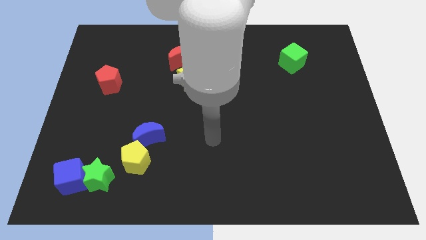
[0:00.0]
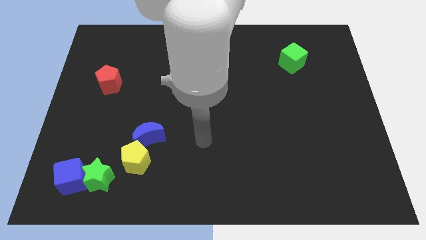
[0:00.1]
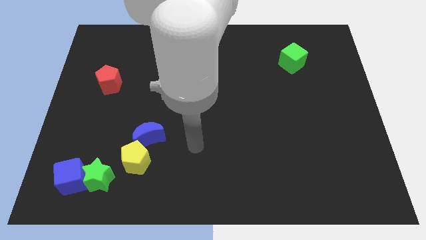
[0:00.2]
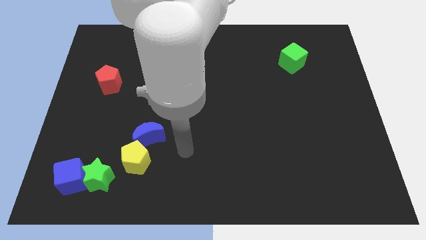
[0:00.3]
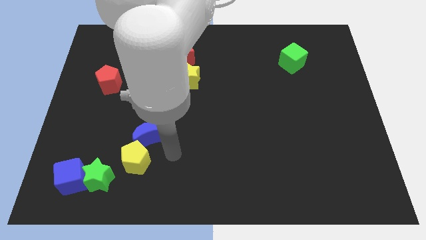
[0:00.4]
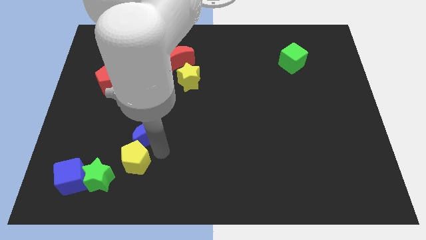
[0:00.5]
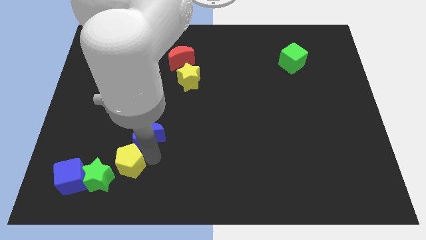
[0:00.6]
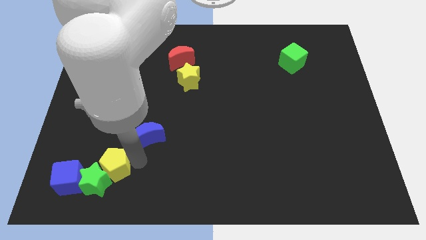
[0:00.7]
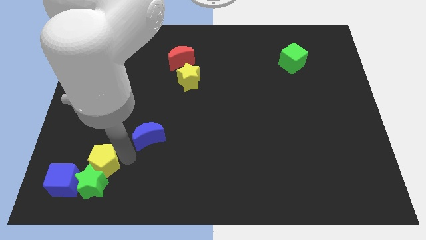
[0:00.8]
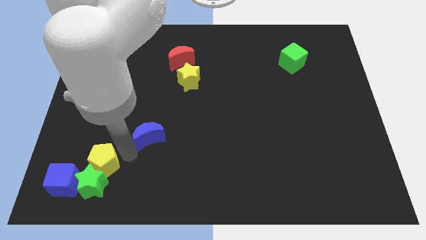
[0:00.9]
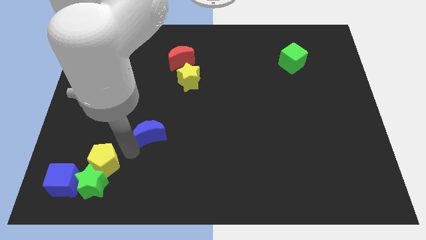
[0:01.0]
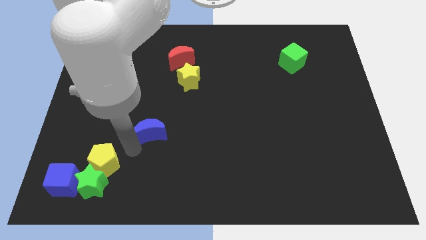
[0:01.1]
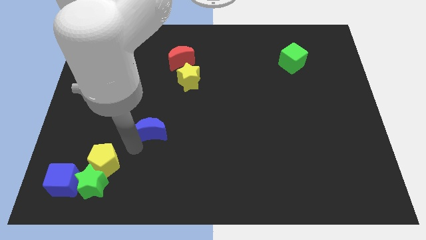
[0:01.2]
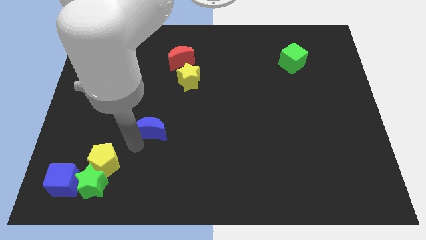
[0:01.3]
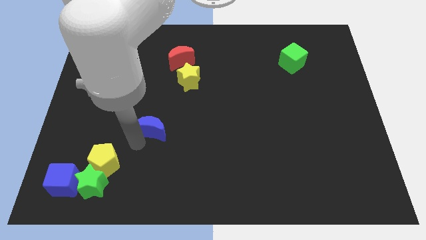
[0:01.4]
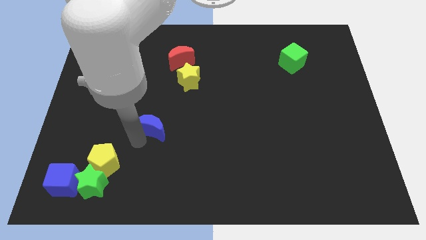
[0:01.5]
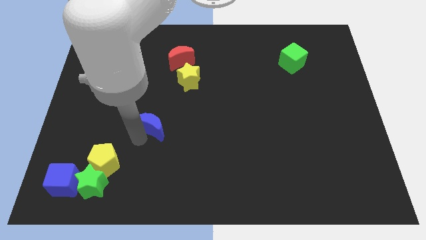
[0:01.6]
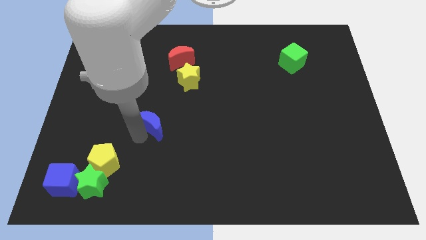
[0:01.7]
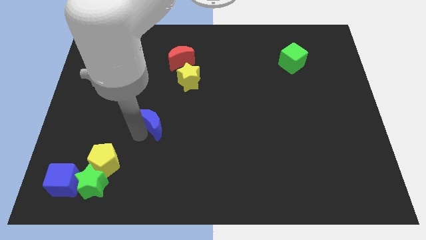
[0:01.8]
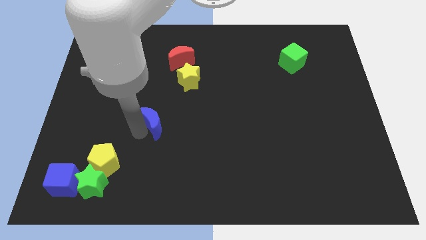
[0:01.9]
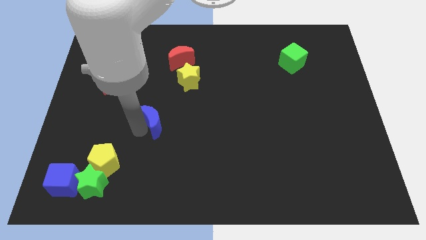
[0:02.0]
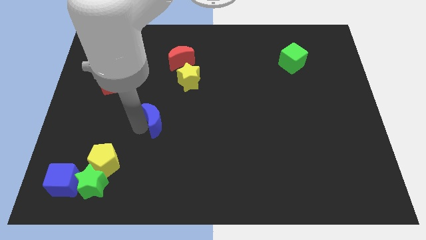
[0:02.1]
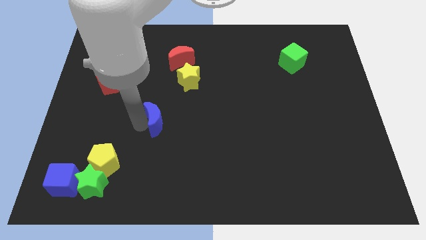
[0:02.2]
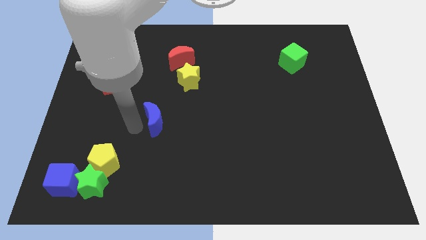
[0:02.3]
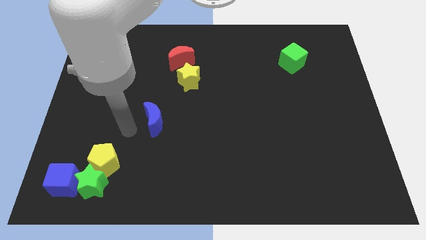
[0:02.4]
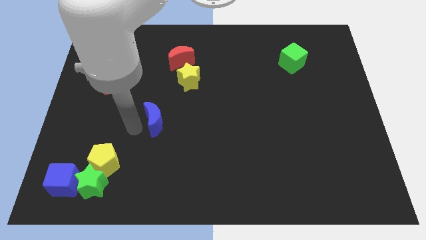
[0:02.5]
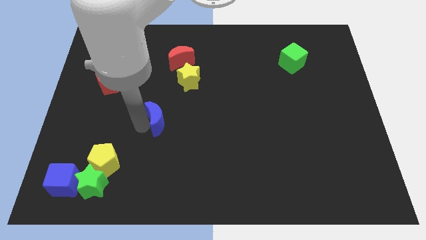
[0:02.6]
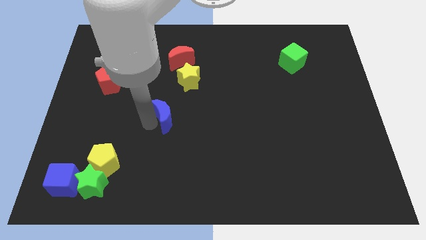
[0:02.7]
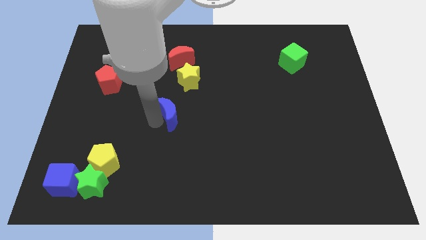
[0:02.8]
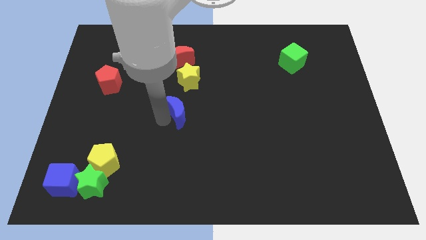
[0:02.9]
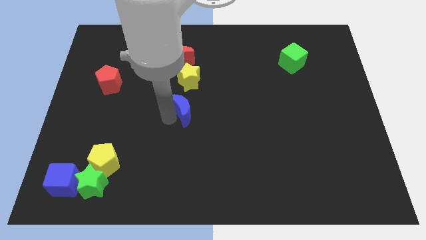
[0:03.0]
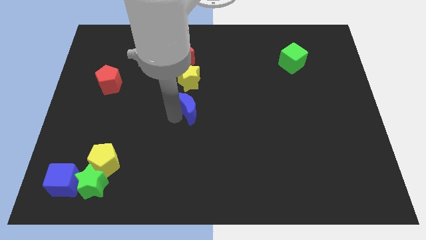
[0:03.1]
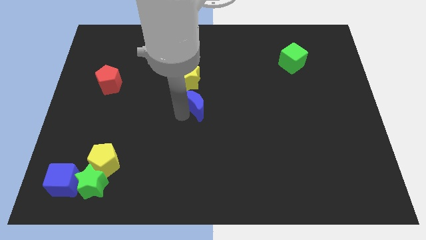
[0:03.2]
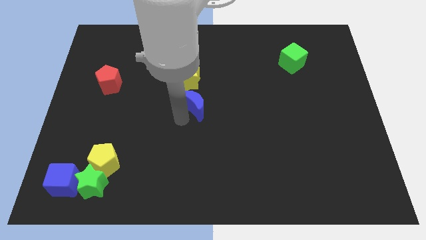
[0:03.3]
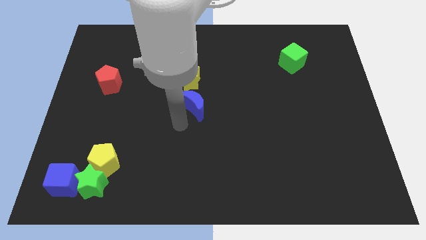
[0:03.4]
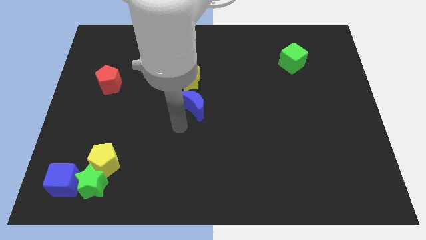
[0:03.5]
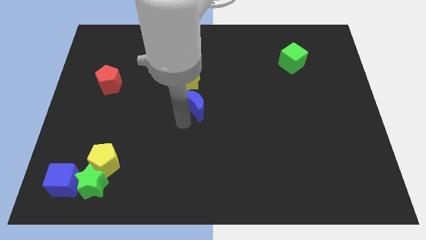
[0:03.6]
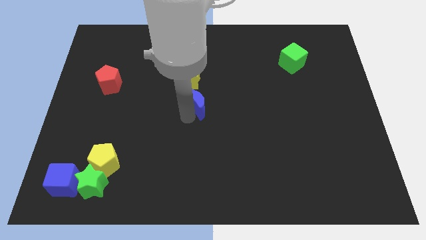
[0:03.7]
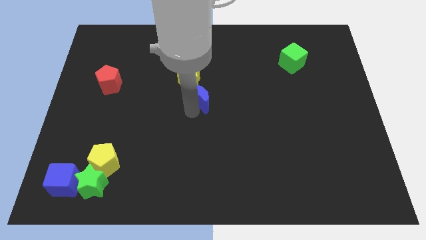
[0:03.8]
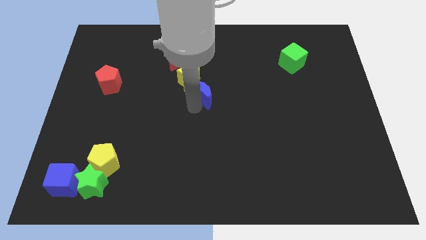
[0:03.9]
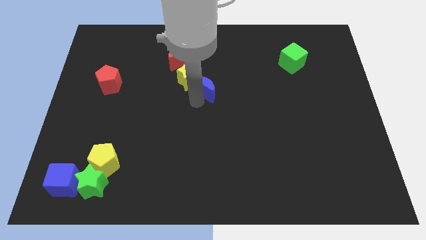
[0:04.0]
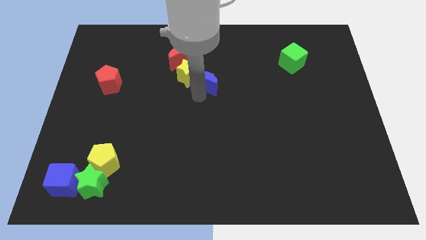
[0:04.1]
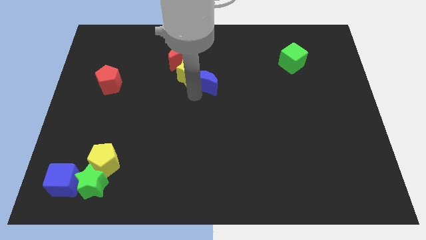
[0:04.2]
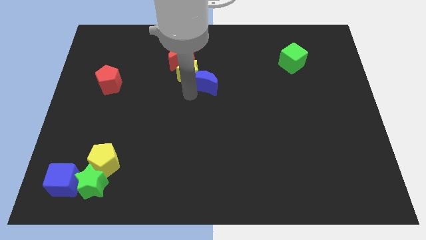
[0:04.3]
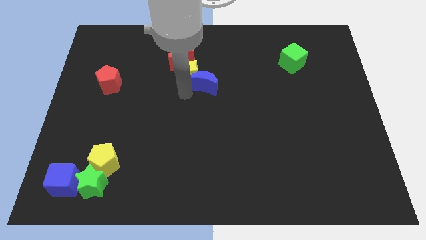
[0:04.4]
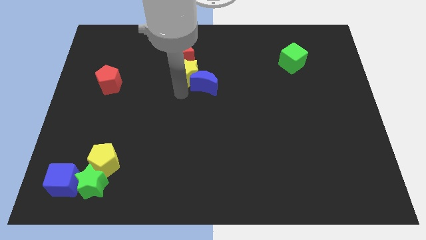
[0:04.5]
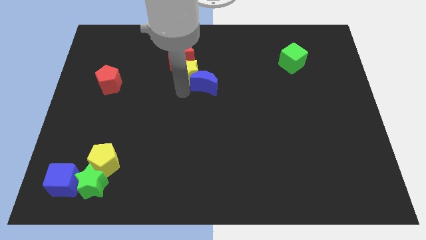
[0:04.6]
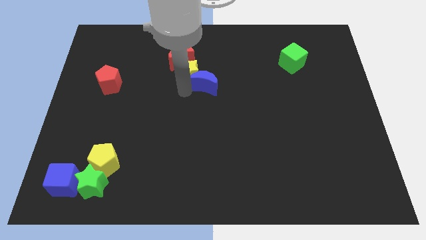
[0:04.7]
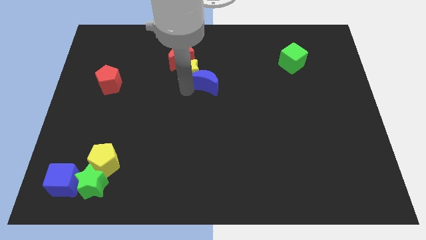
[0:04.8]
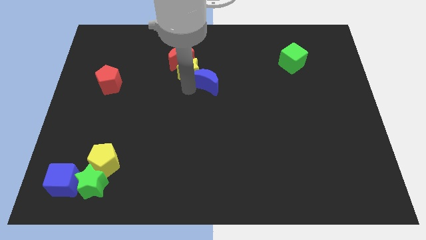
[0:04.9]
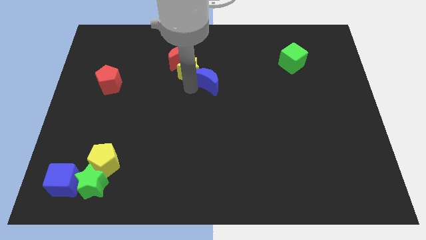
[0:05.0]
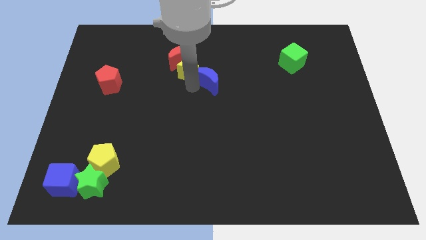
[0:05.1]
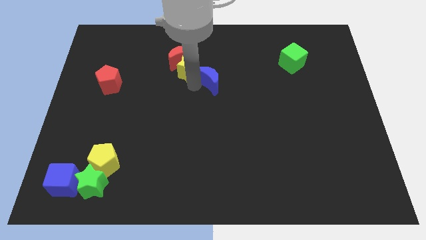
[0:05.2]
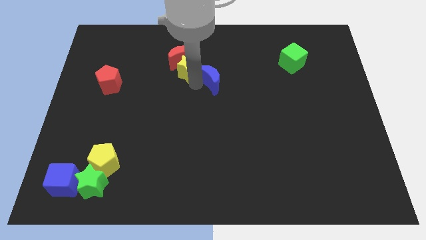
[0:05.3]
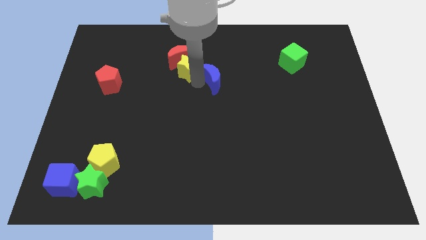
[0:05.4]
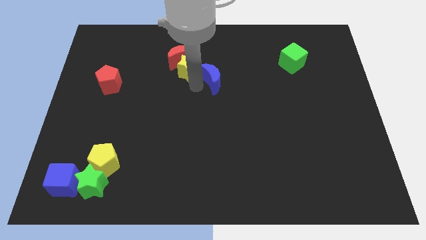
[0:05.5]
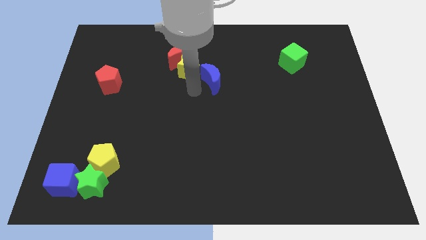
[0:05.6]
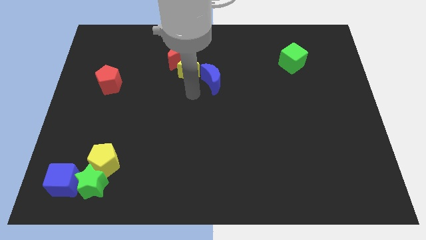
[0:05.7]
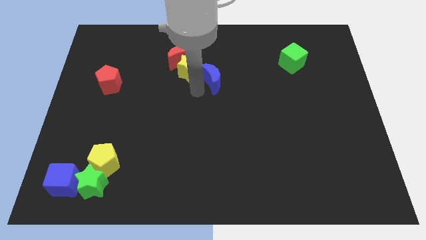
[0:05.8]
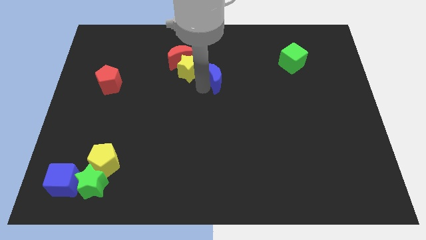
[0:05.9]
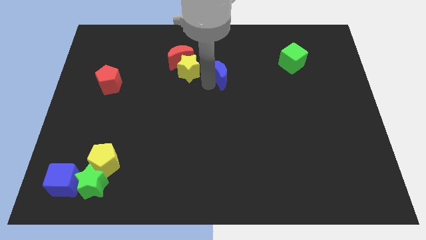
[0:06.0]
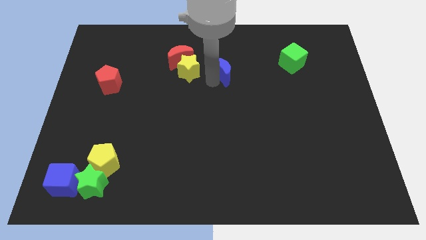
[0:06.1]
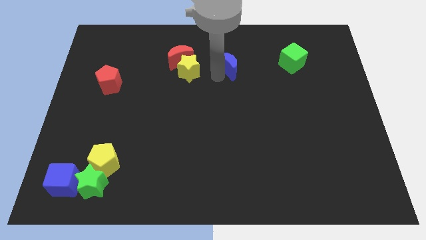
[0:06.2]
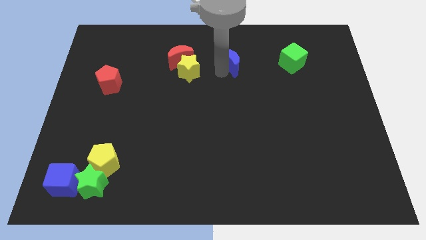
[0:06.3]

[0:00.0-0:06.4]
push the blue moon to the left of the green cube

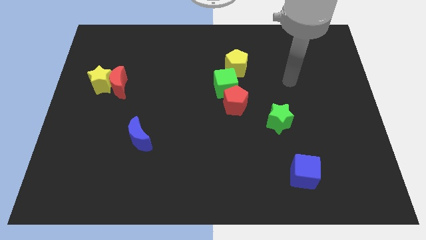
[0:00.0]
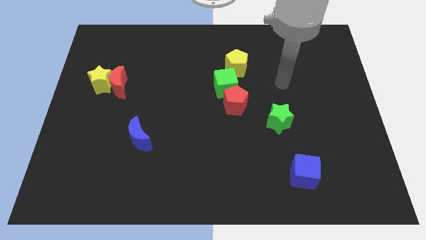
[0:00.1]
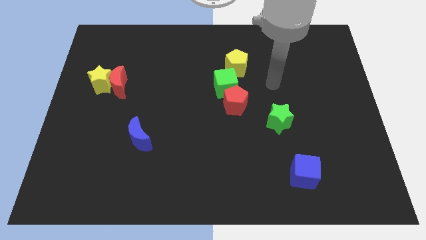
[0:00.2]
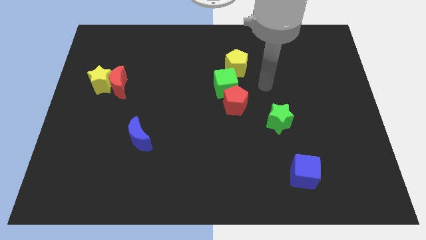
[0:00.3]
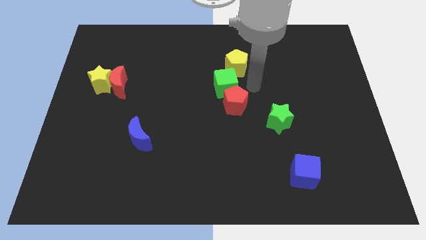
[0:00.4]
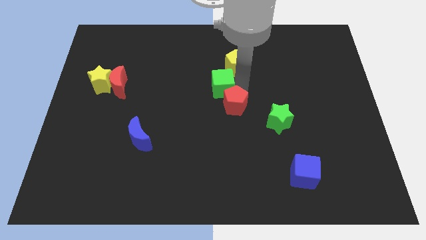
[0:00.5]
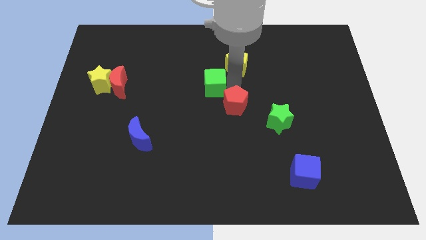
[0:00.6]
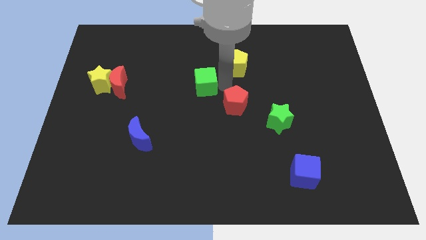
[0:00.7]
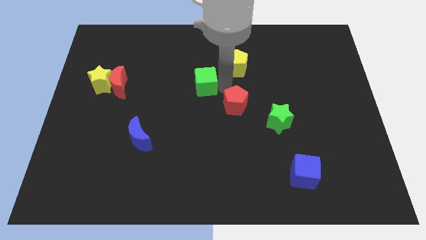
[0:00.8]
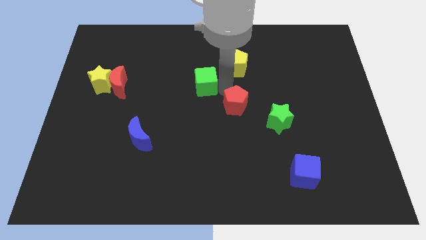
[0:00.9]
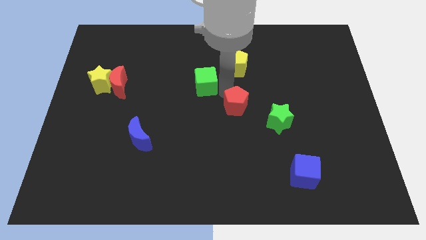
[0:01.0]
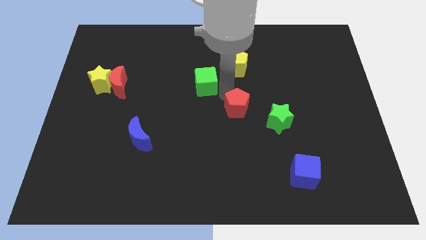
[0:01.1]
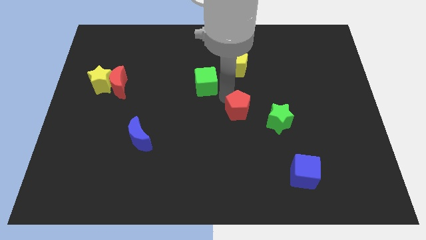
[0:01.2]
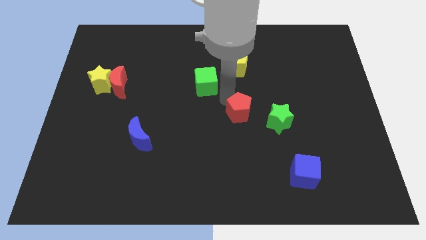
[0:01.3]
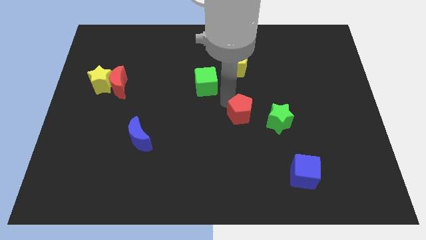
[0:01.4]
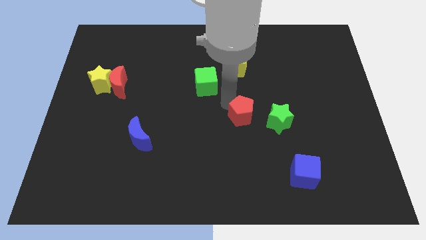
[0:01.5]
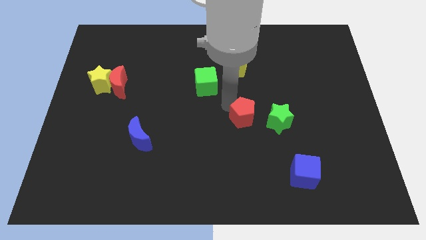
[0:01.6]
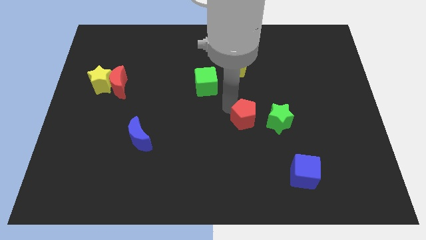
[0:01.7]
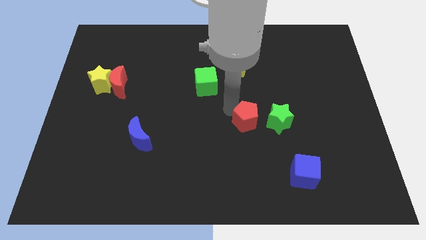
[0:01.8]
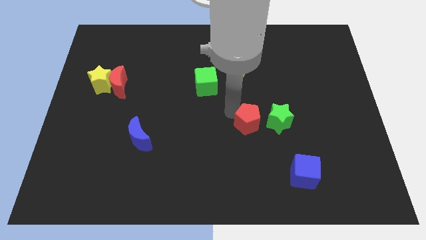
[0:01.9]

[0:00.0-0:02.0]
slide the red pentagon diagonally down and to the left of the green star
